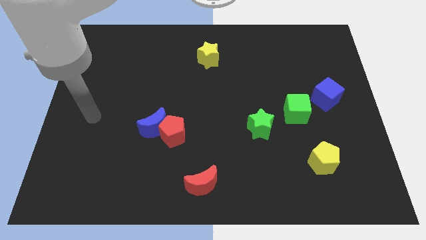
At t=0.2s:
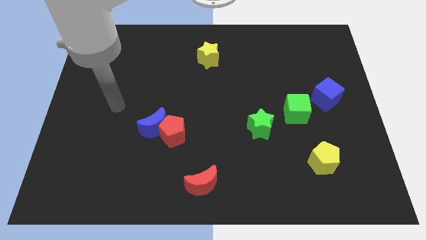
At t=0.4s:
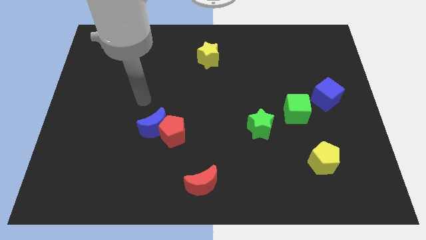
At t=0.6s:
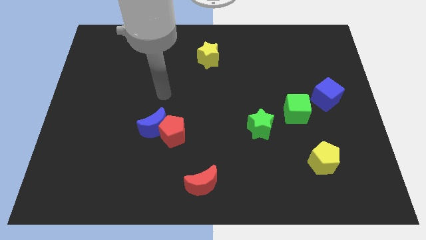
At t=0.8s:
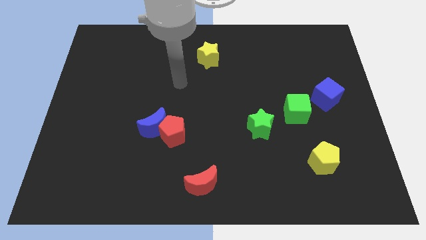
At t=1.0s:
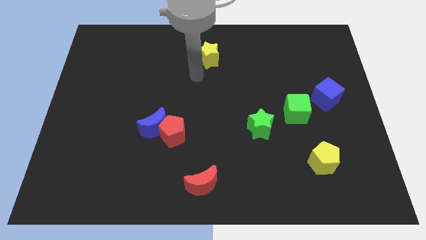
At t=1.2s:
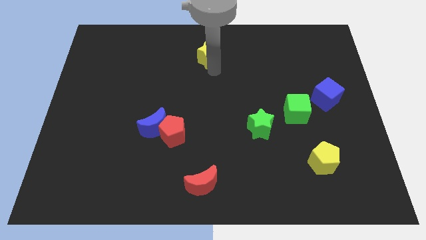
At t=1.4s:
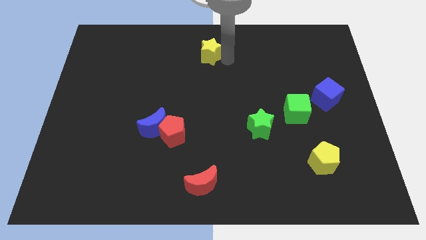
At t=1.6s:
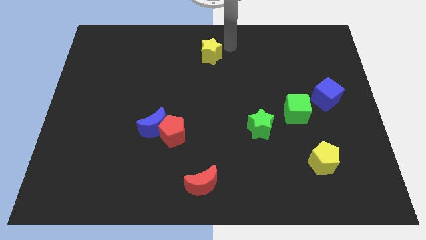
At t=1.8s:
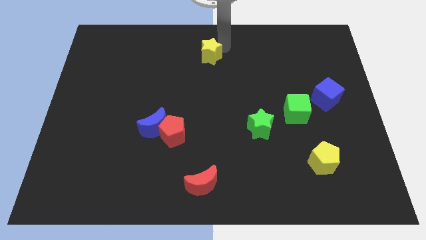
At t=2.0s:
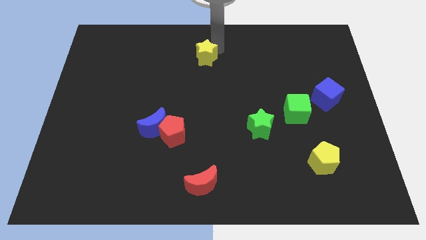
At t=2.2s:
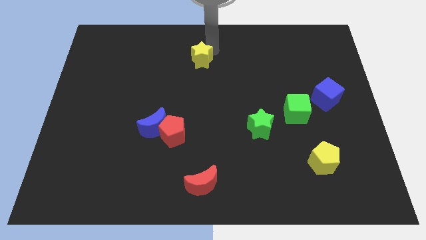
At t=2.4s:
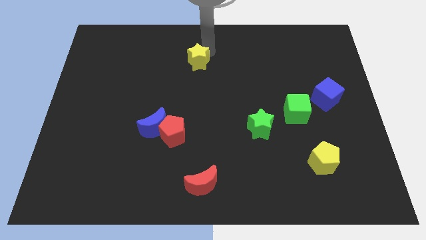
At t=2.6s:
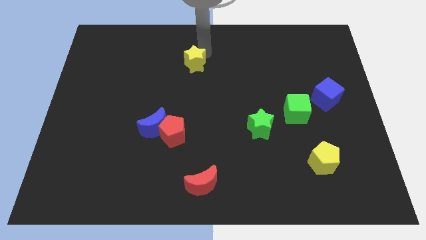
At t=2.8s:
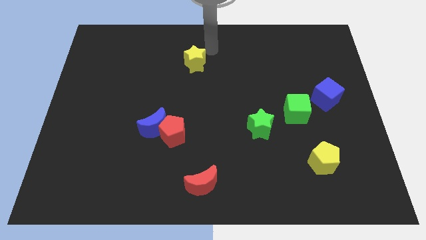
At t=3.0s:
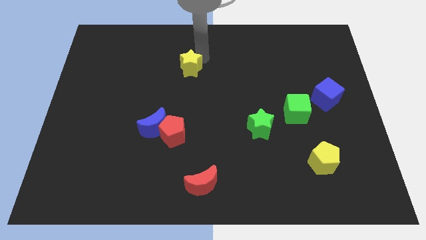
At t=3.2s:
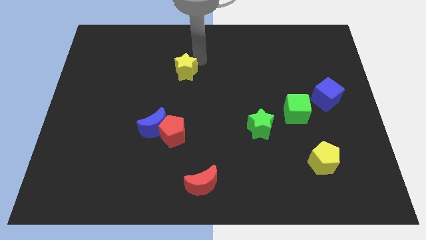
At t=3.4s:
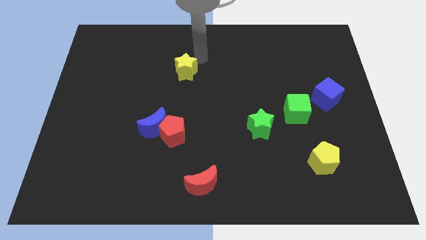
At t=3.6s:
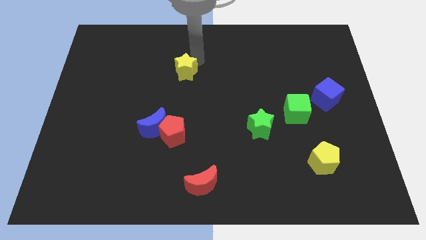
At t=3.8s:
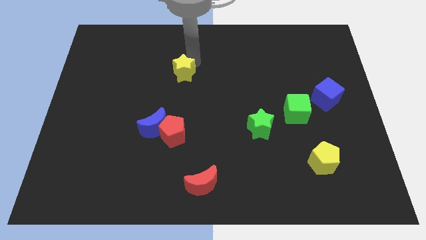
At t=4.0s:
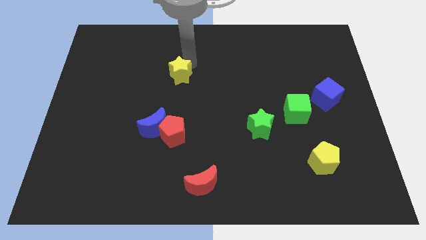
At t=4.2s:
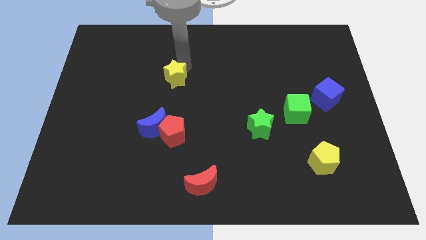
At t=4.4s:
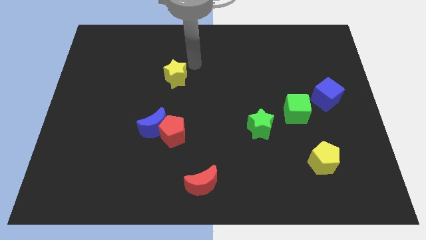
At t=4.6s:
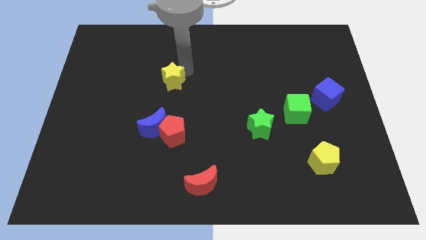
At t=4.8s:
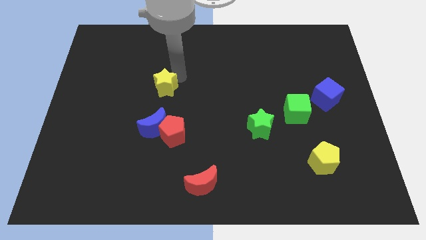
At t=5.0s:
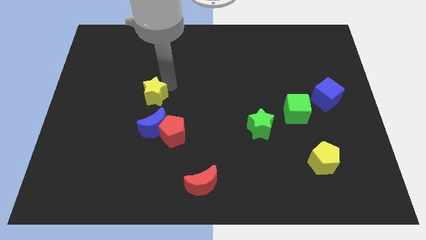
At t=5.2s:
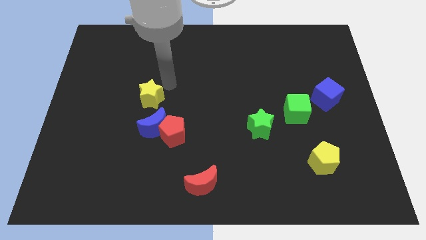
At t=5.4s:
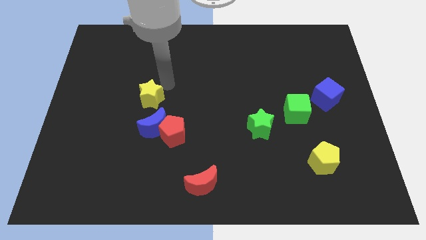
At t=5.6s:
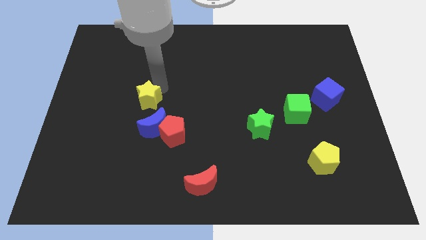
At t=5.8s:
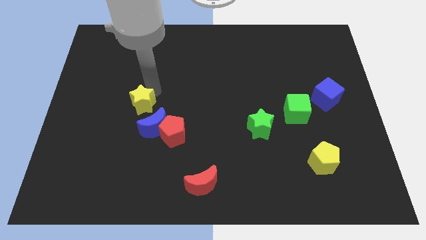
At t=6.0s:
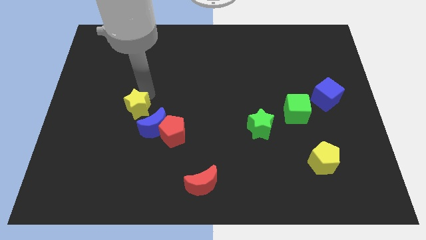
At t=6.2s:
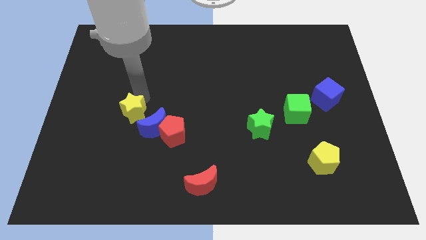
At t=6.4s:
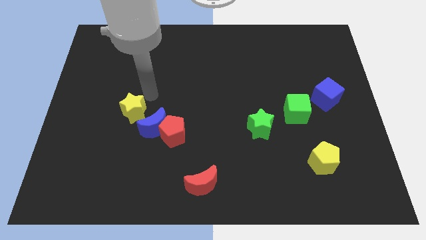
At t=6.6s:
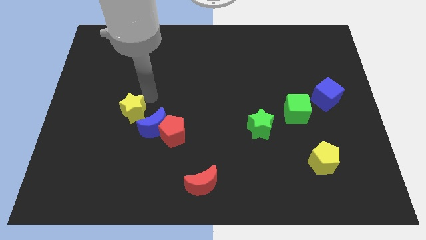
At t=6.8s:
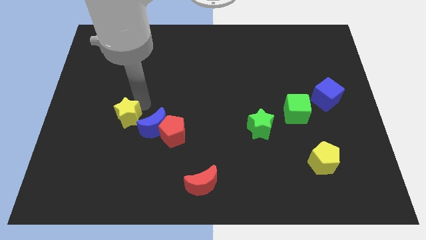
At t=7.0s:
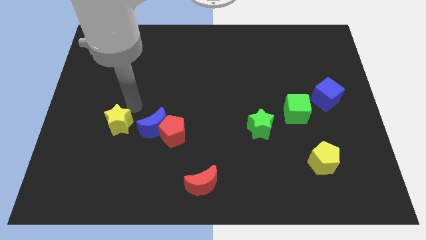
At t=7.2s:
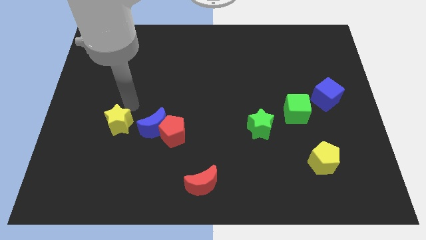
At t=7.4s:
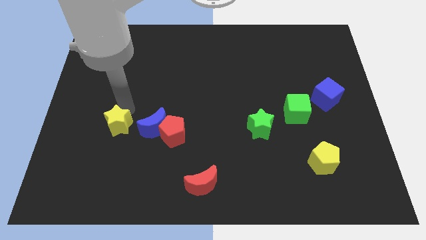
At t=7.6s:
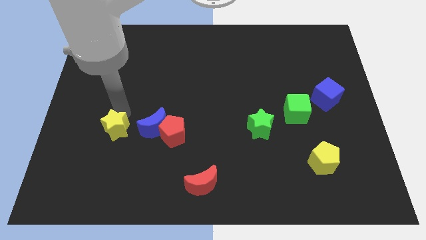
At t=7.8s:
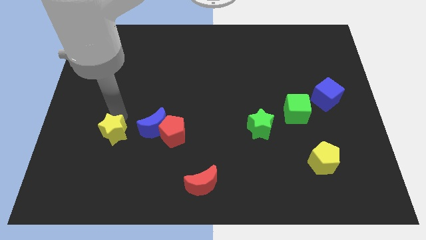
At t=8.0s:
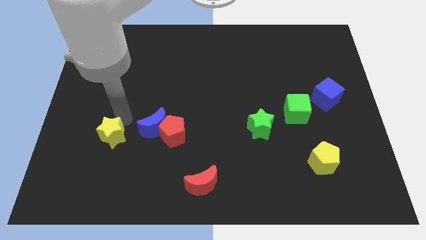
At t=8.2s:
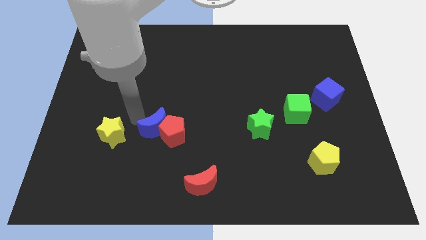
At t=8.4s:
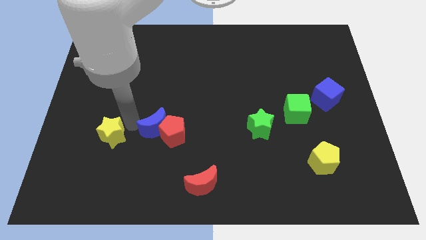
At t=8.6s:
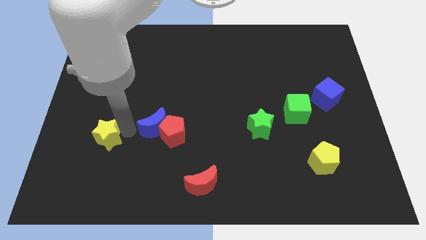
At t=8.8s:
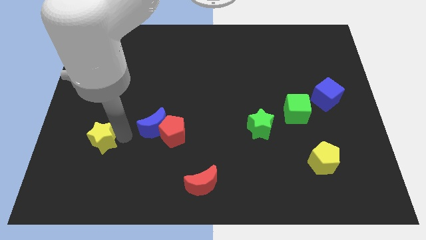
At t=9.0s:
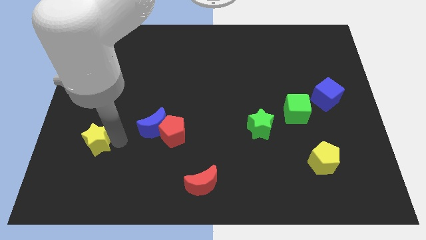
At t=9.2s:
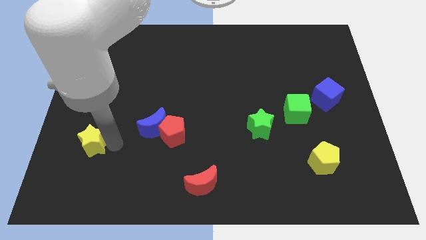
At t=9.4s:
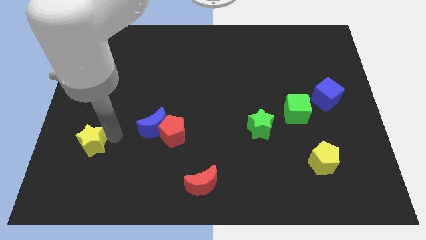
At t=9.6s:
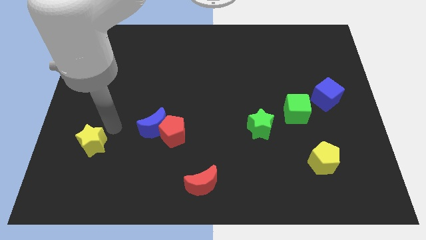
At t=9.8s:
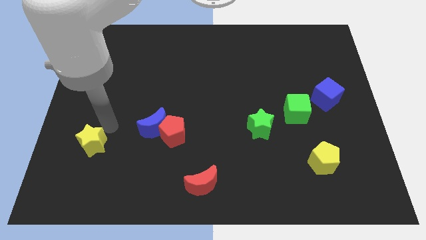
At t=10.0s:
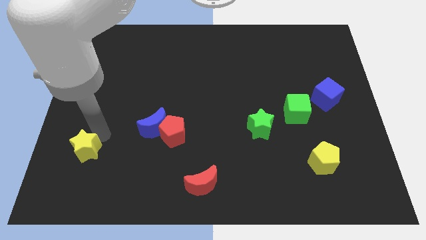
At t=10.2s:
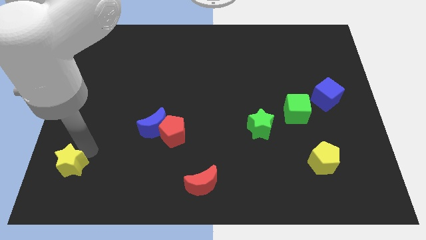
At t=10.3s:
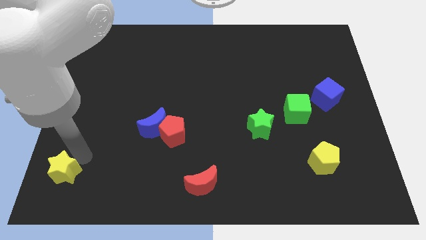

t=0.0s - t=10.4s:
put the yellow star to the bottom left corner

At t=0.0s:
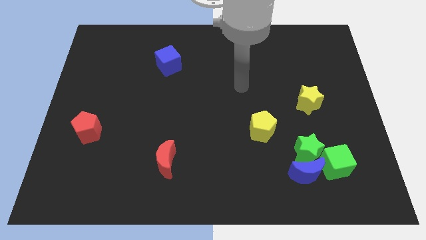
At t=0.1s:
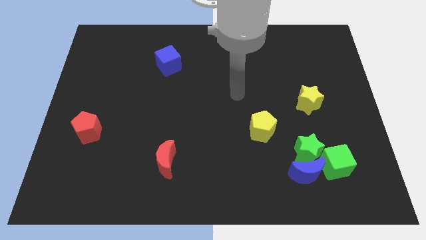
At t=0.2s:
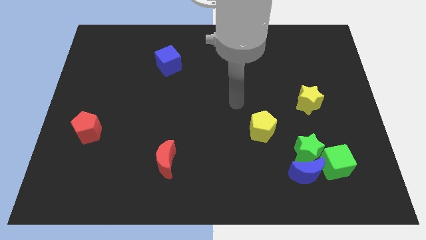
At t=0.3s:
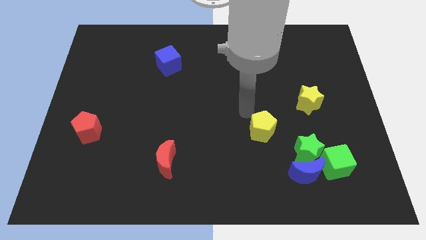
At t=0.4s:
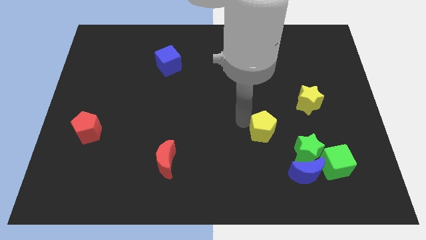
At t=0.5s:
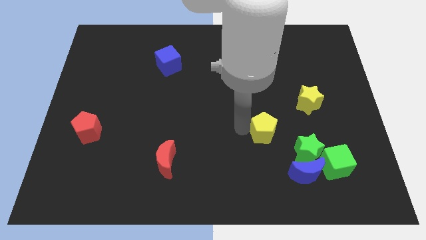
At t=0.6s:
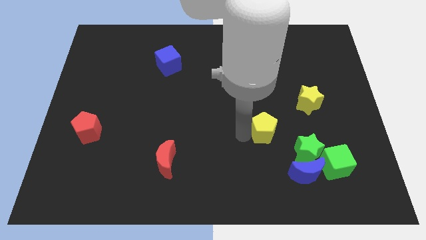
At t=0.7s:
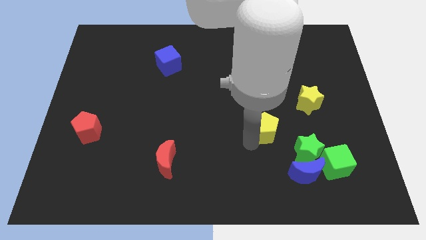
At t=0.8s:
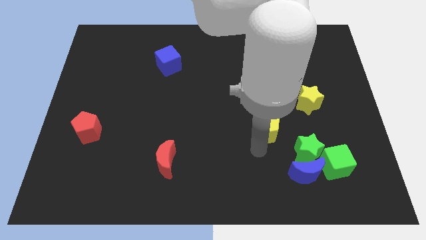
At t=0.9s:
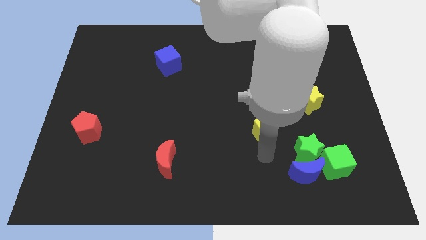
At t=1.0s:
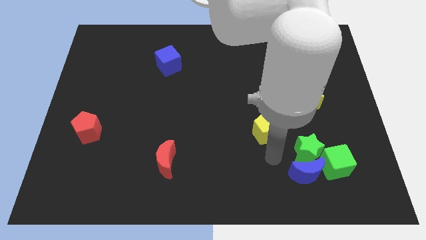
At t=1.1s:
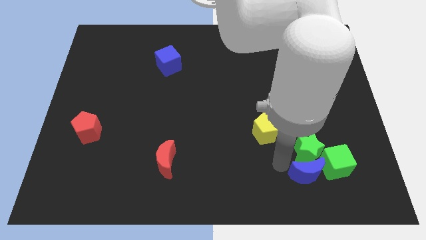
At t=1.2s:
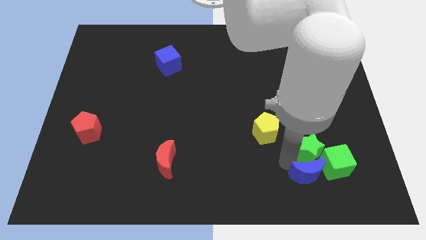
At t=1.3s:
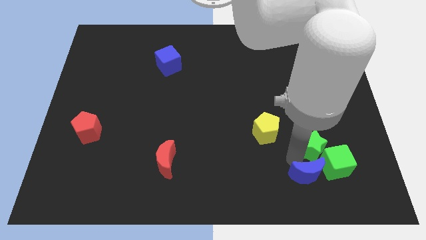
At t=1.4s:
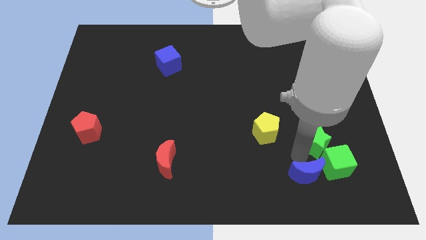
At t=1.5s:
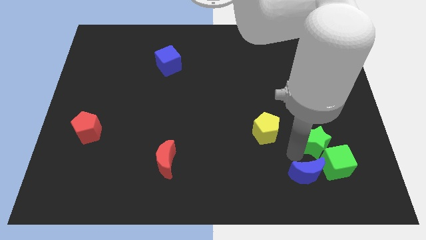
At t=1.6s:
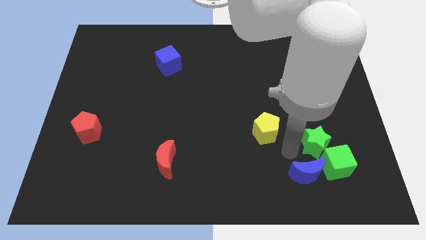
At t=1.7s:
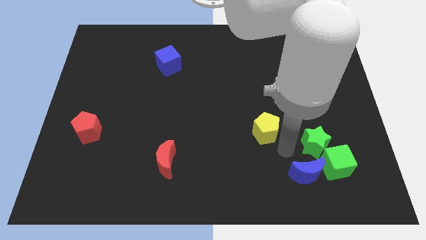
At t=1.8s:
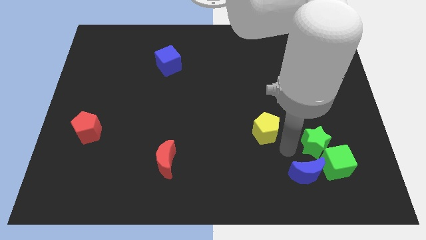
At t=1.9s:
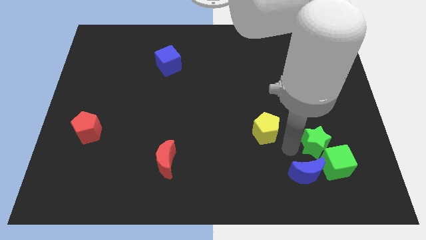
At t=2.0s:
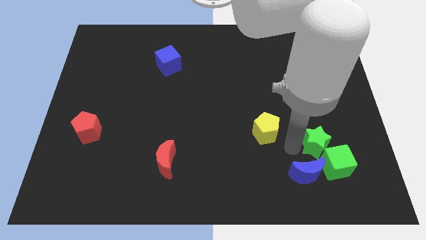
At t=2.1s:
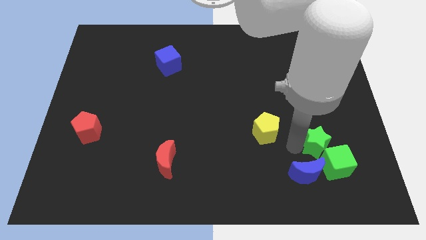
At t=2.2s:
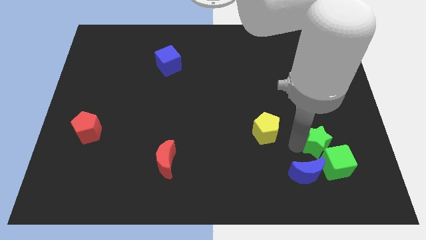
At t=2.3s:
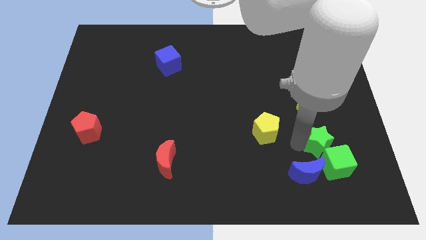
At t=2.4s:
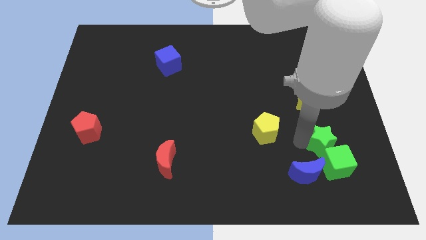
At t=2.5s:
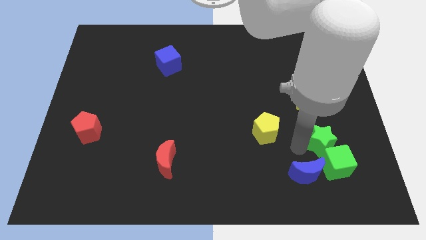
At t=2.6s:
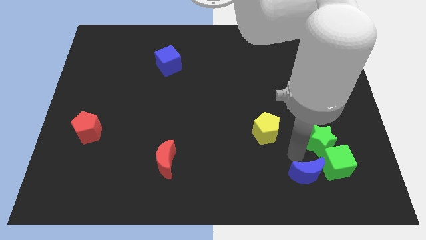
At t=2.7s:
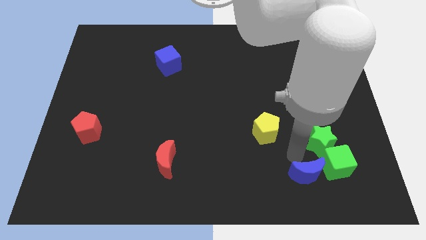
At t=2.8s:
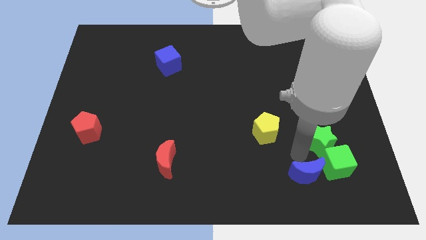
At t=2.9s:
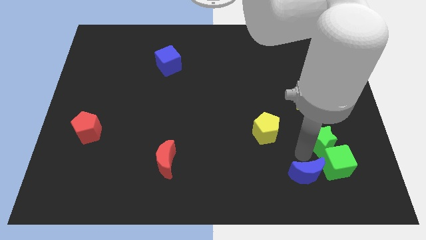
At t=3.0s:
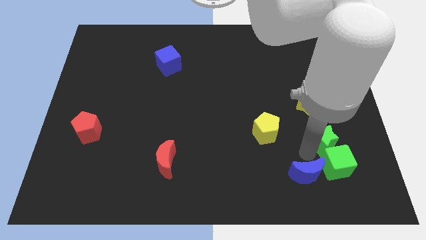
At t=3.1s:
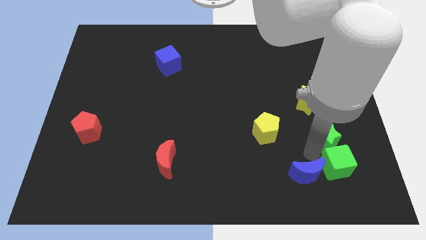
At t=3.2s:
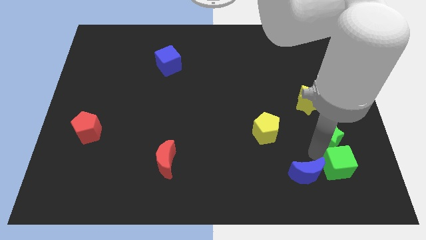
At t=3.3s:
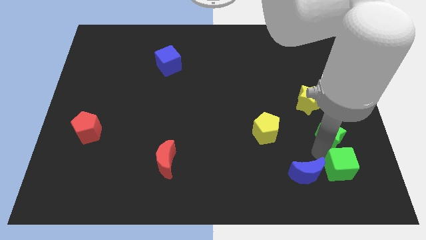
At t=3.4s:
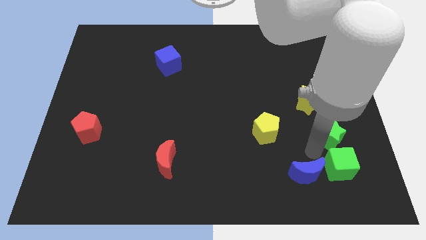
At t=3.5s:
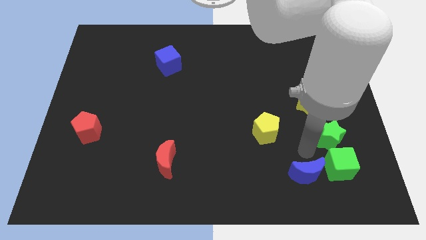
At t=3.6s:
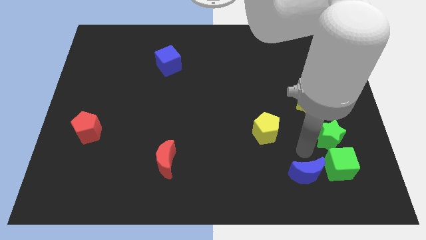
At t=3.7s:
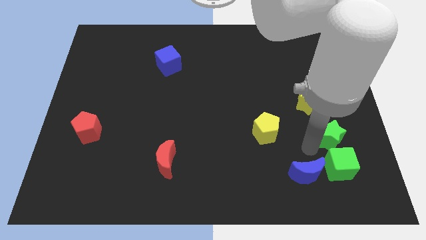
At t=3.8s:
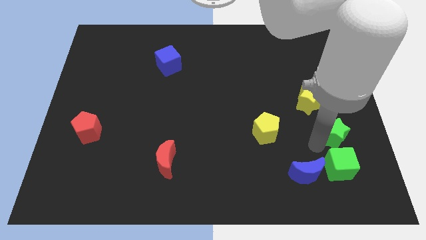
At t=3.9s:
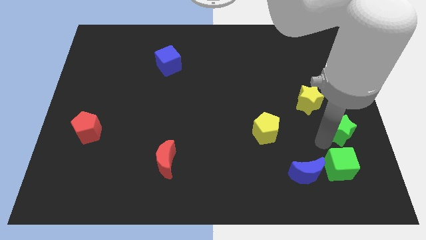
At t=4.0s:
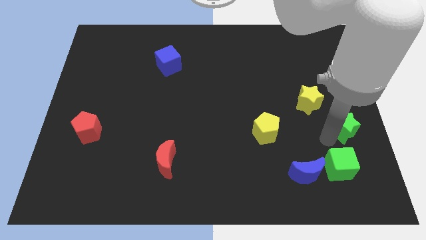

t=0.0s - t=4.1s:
slide the green star to the right side
